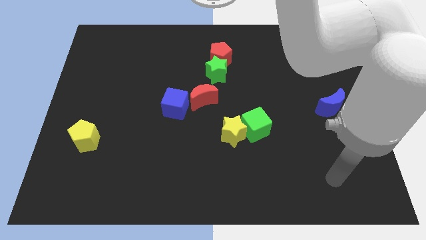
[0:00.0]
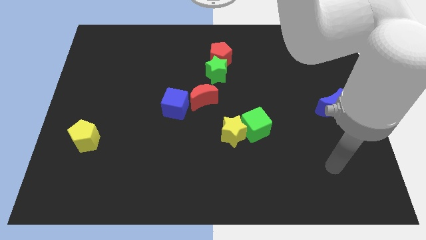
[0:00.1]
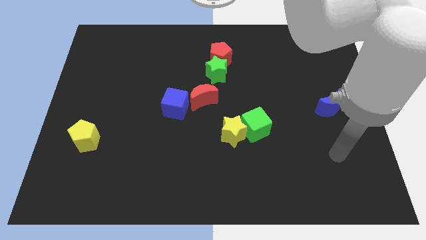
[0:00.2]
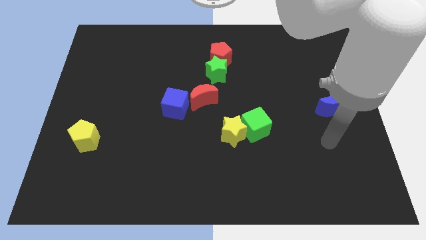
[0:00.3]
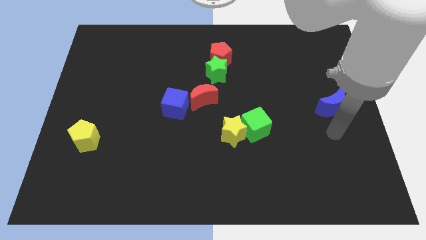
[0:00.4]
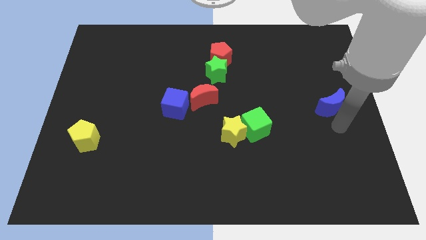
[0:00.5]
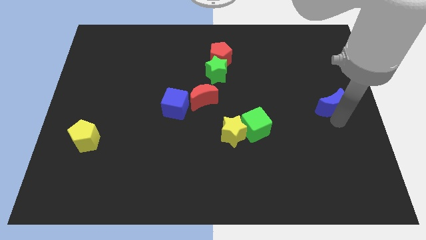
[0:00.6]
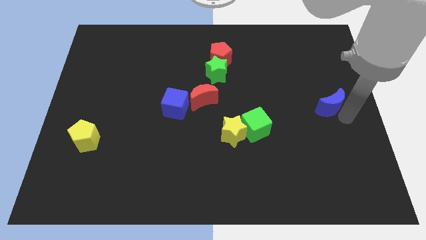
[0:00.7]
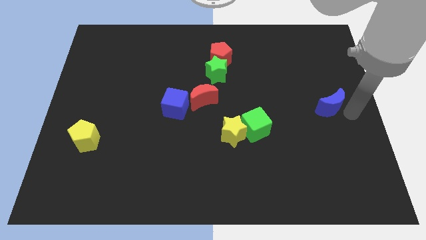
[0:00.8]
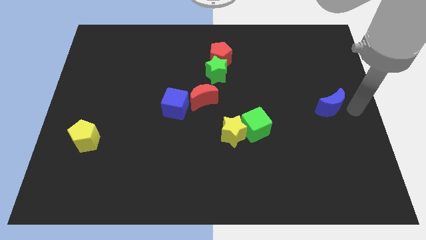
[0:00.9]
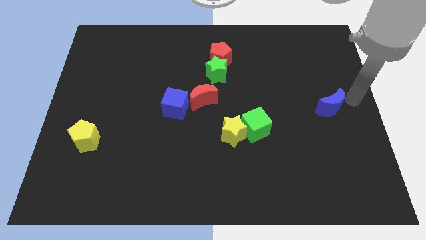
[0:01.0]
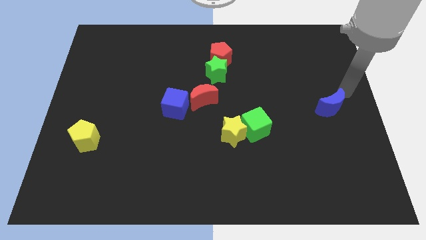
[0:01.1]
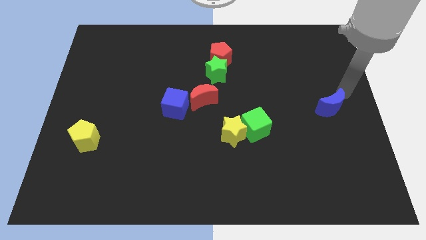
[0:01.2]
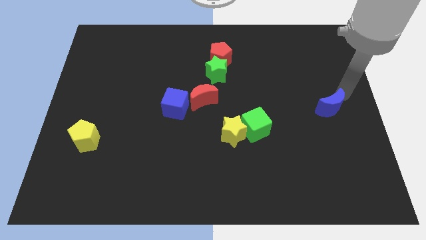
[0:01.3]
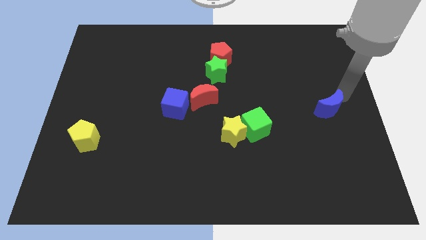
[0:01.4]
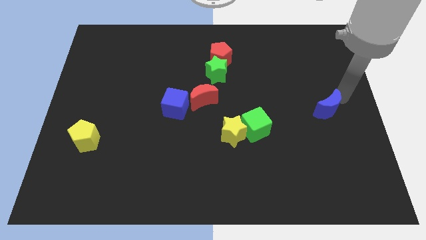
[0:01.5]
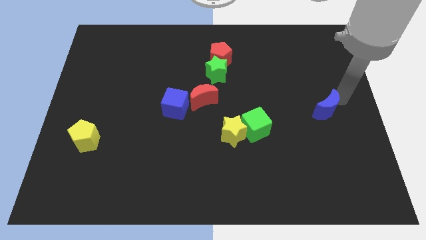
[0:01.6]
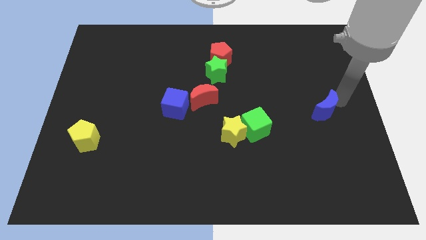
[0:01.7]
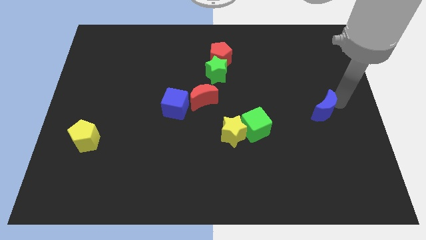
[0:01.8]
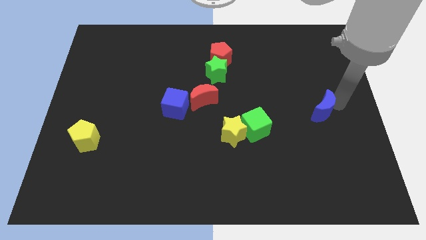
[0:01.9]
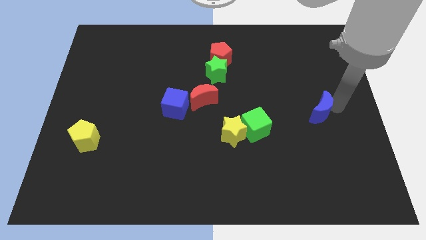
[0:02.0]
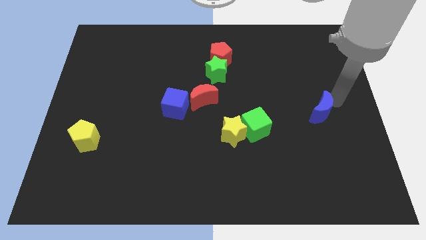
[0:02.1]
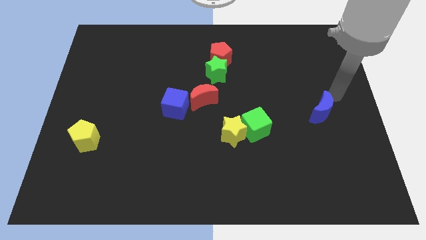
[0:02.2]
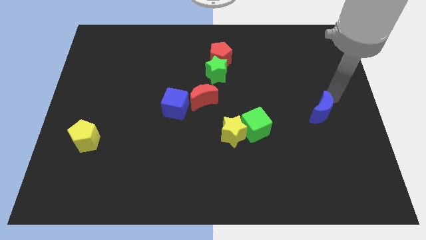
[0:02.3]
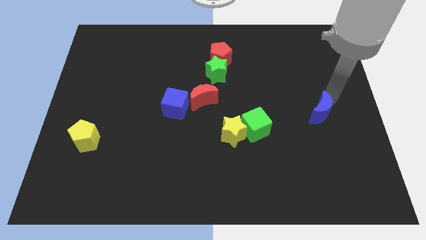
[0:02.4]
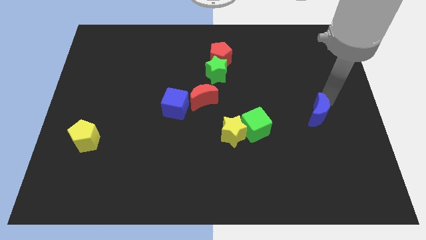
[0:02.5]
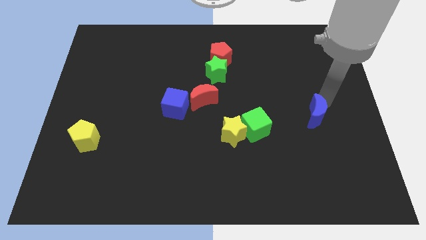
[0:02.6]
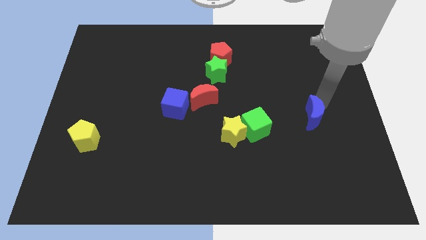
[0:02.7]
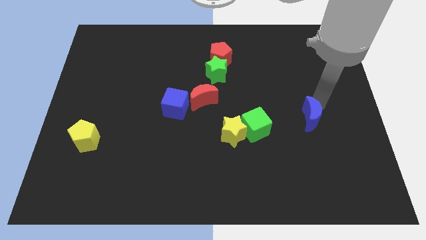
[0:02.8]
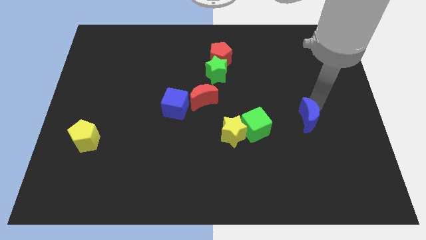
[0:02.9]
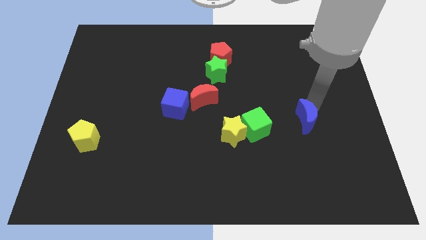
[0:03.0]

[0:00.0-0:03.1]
slightly push the blue moon diagonally down and to the left

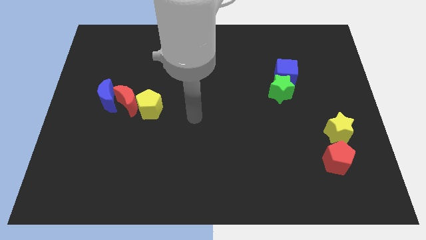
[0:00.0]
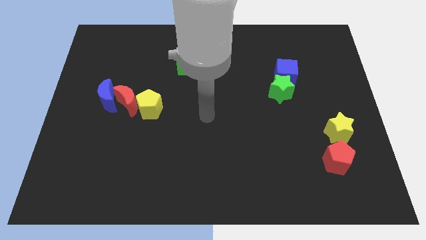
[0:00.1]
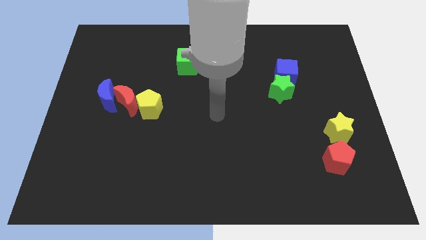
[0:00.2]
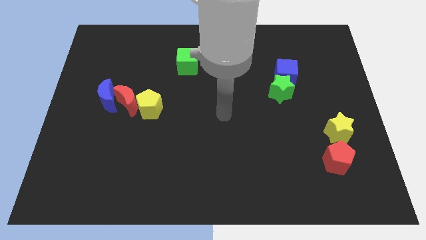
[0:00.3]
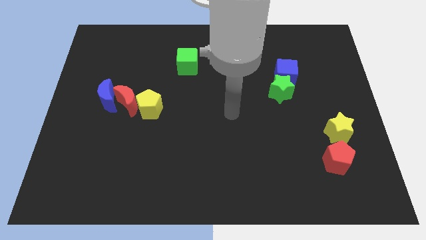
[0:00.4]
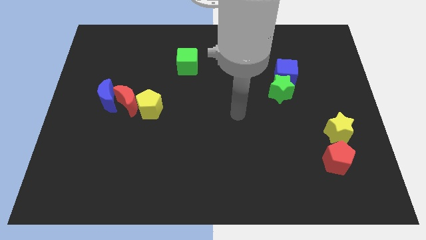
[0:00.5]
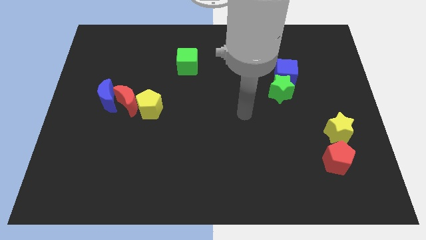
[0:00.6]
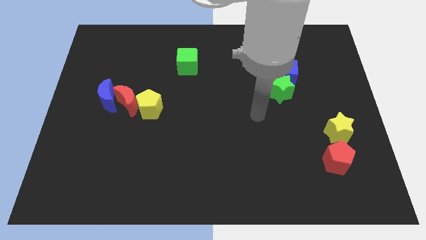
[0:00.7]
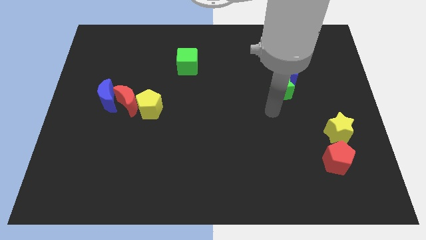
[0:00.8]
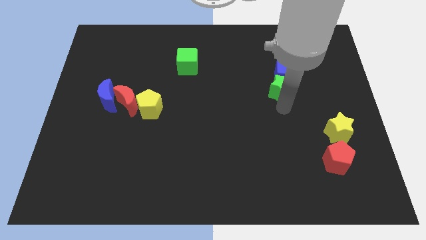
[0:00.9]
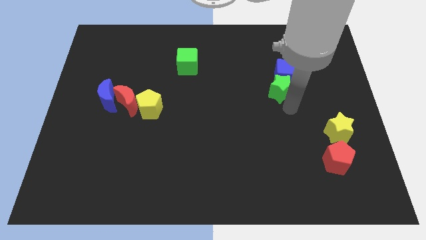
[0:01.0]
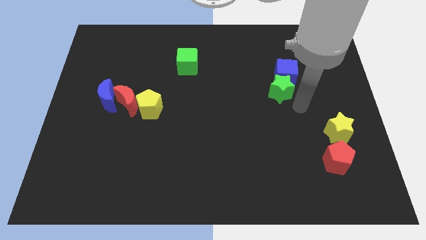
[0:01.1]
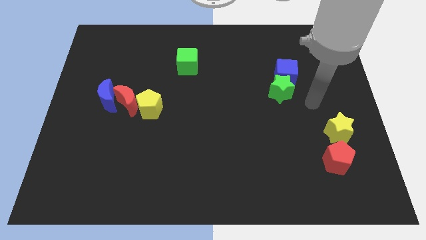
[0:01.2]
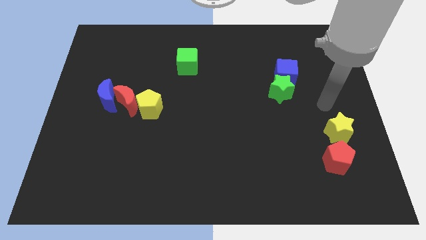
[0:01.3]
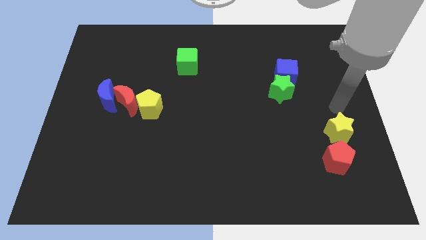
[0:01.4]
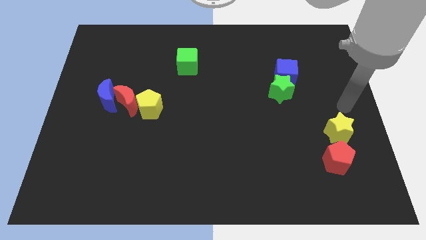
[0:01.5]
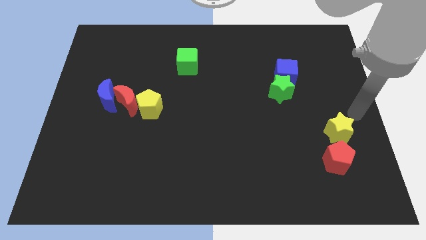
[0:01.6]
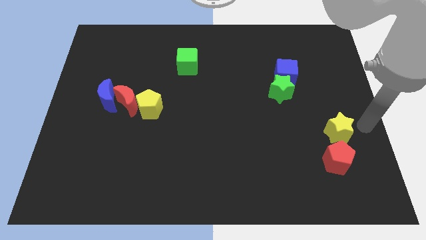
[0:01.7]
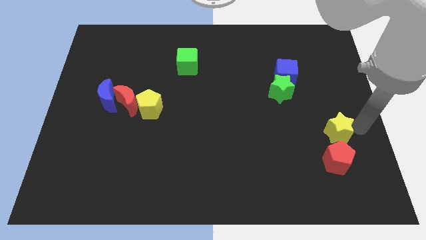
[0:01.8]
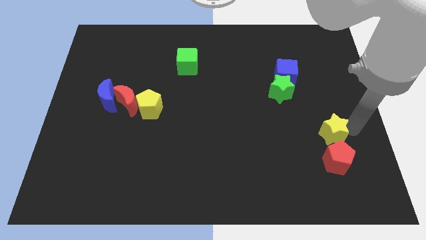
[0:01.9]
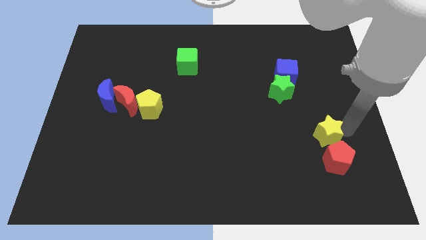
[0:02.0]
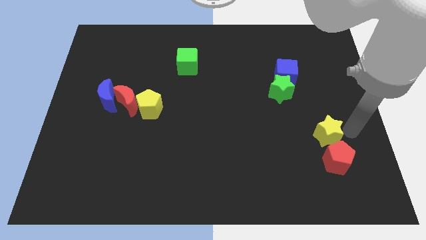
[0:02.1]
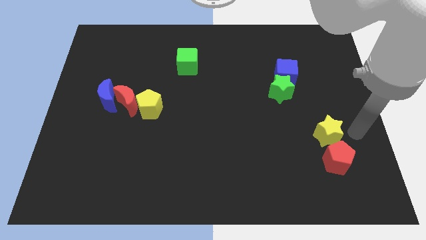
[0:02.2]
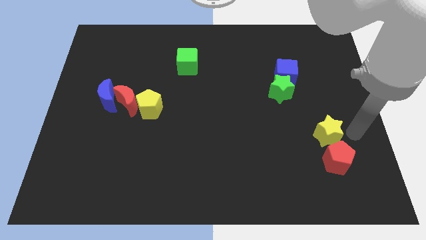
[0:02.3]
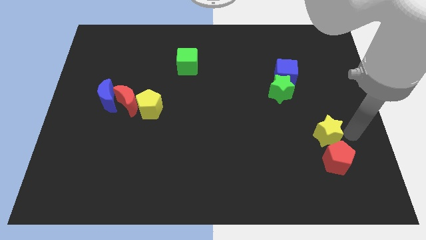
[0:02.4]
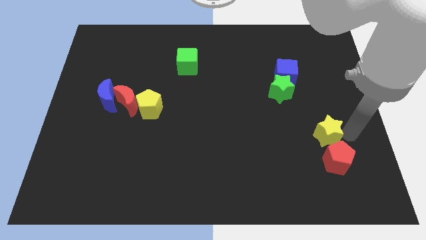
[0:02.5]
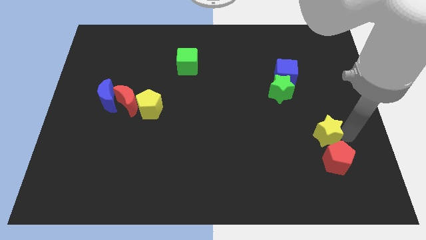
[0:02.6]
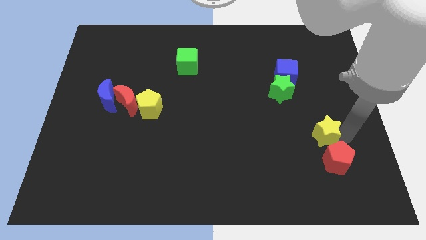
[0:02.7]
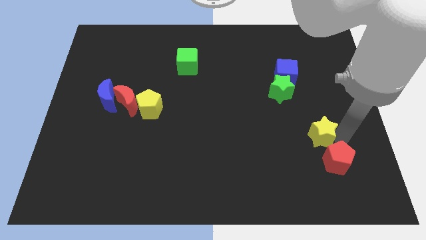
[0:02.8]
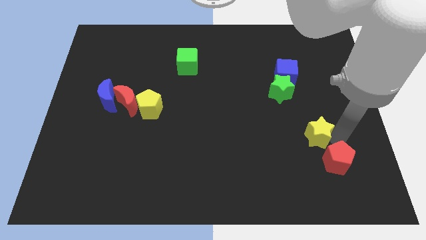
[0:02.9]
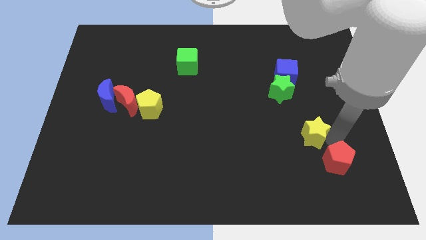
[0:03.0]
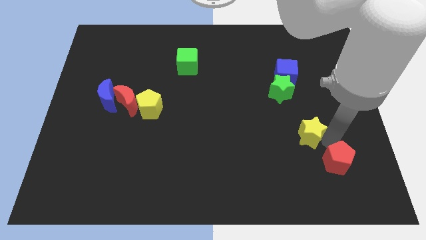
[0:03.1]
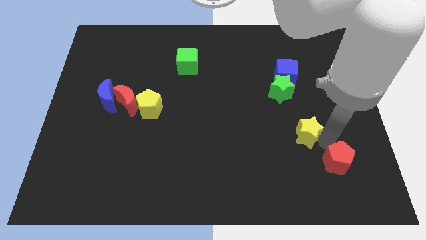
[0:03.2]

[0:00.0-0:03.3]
slightly slide the yellow star to the left

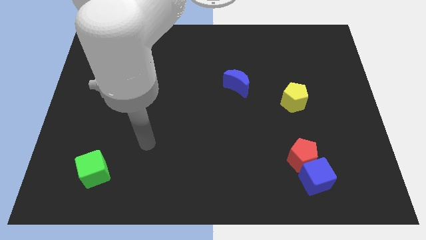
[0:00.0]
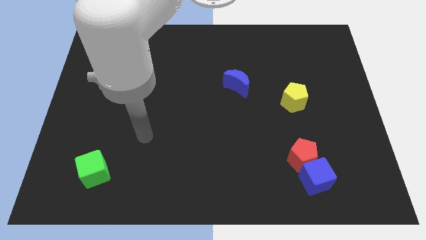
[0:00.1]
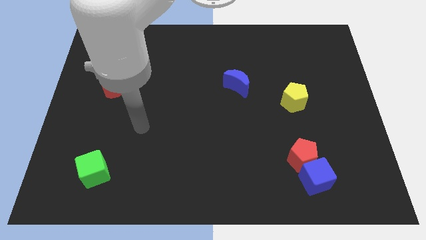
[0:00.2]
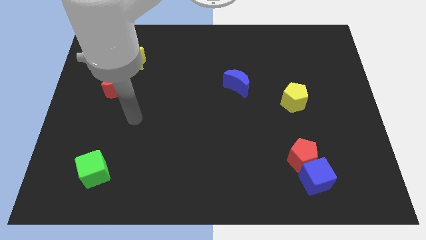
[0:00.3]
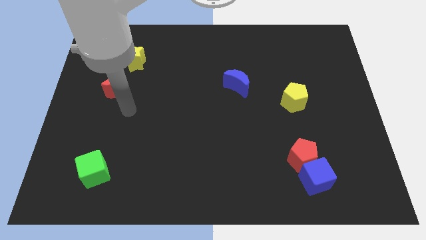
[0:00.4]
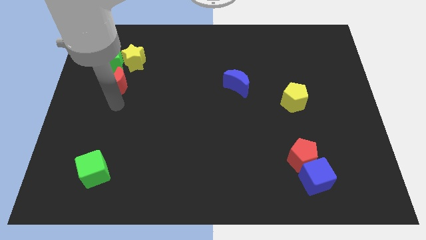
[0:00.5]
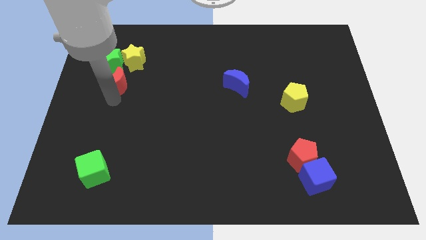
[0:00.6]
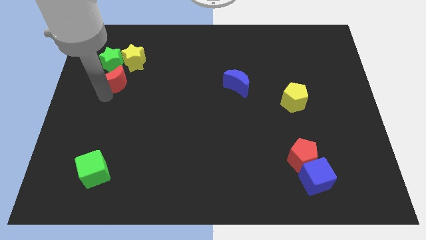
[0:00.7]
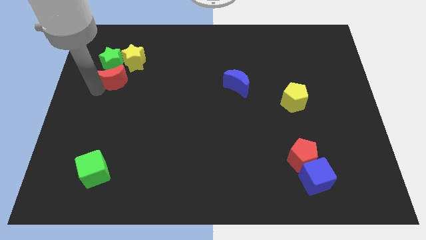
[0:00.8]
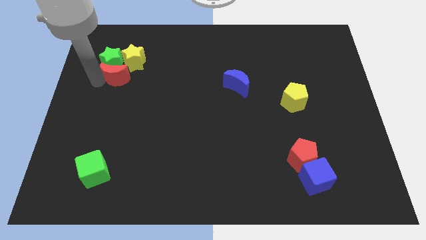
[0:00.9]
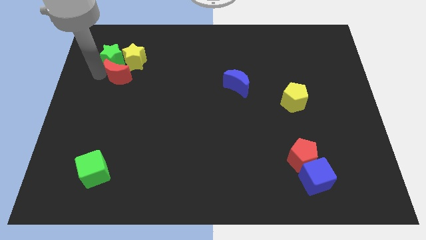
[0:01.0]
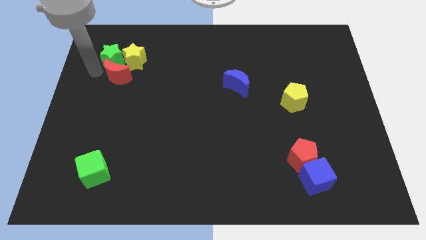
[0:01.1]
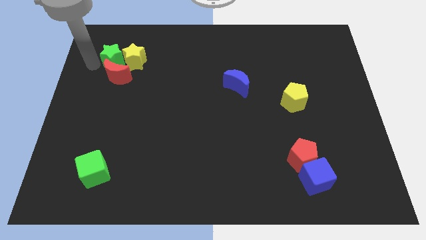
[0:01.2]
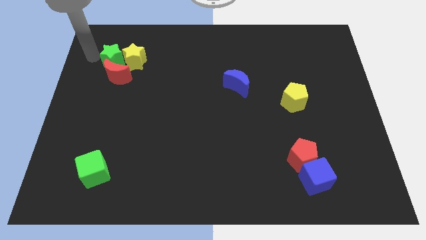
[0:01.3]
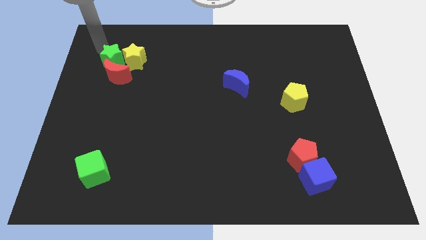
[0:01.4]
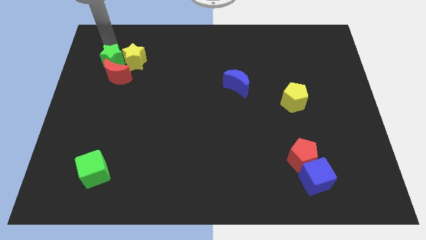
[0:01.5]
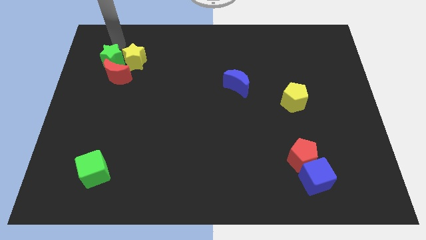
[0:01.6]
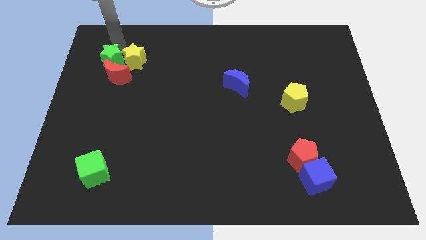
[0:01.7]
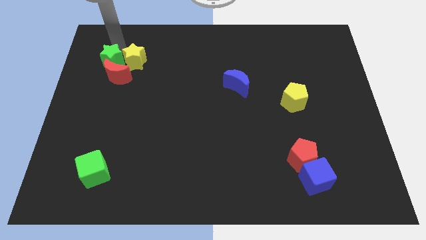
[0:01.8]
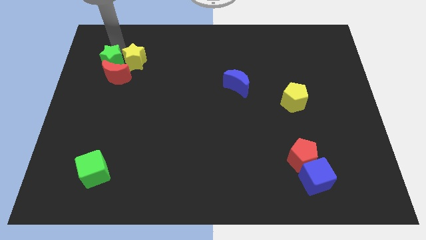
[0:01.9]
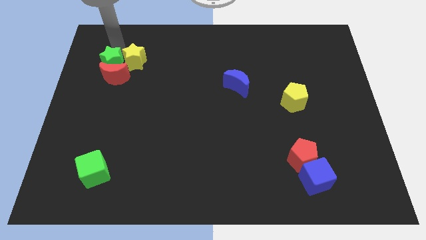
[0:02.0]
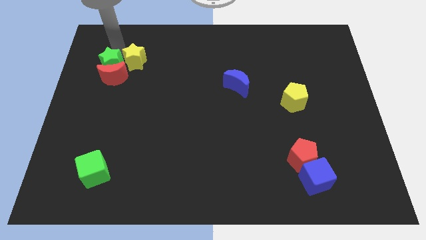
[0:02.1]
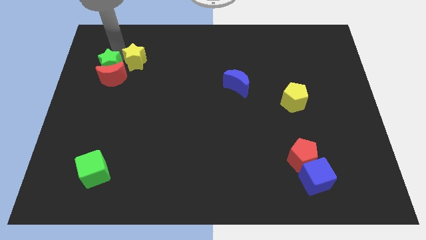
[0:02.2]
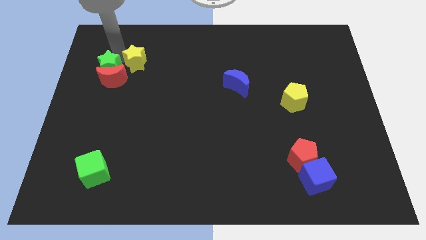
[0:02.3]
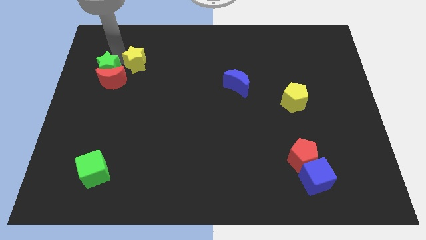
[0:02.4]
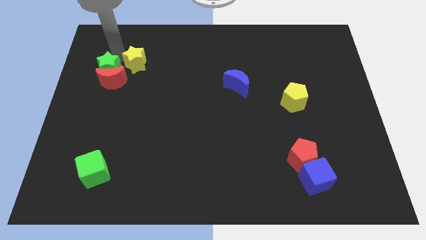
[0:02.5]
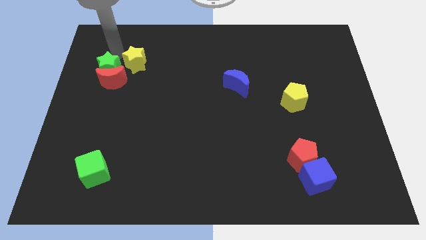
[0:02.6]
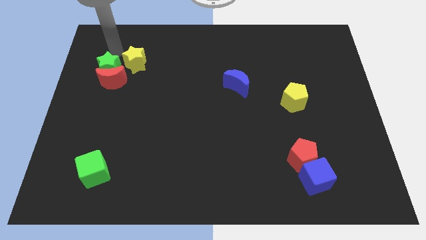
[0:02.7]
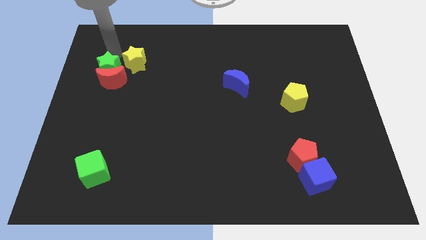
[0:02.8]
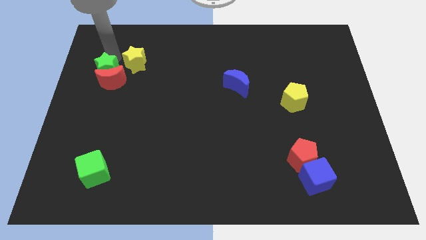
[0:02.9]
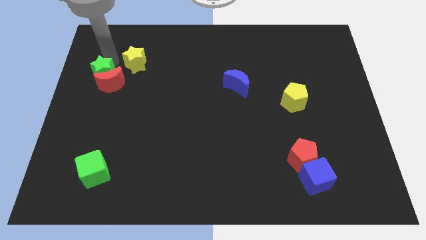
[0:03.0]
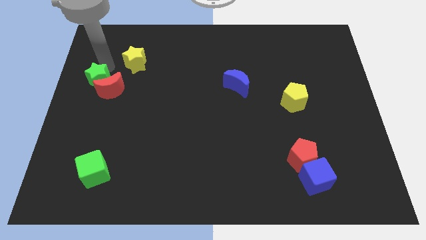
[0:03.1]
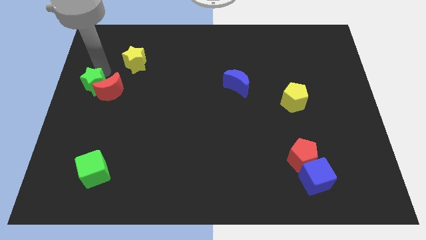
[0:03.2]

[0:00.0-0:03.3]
push the green star down a little bit
